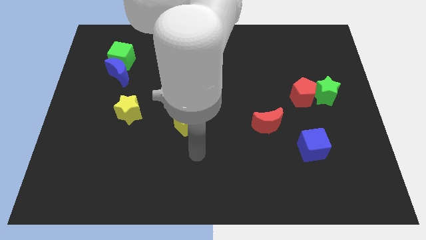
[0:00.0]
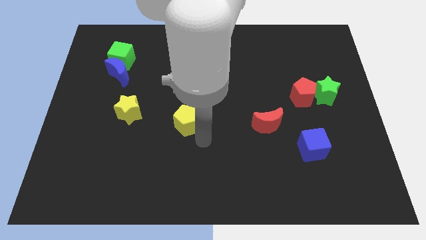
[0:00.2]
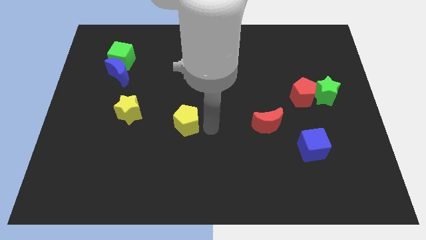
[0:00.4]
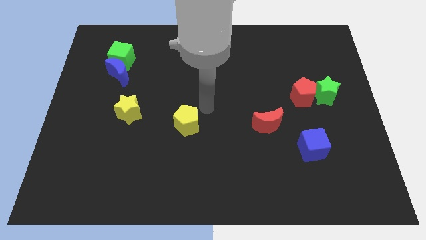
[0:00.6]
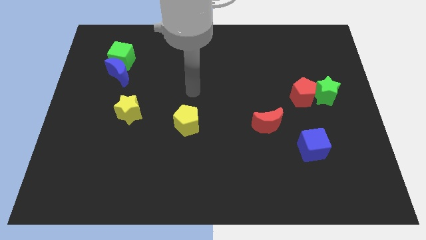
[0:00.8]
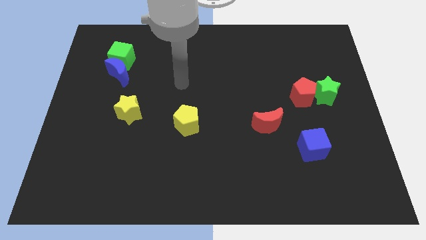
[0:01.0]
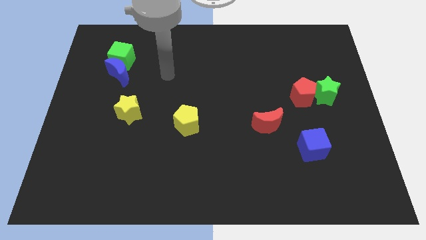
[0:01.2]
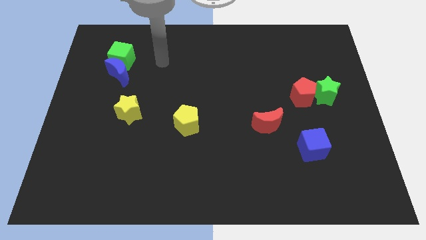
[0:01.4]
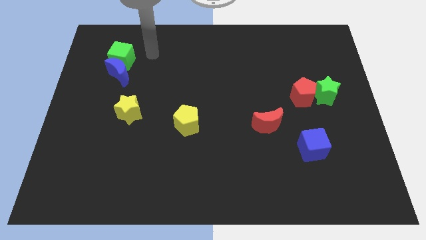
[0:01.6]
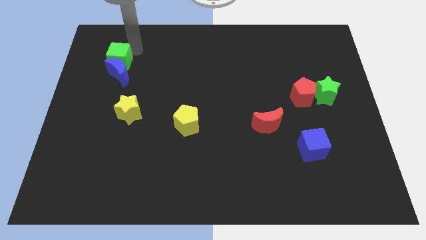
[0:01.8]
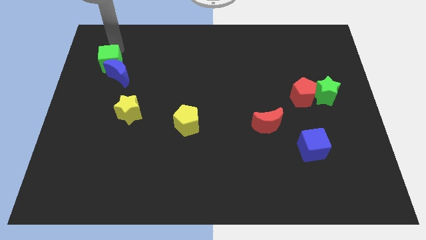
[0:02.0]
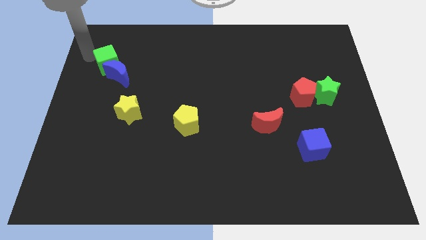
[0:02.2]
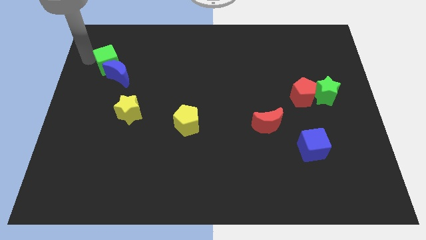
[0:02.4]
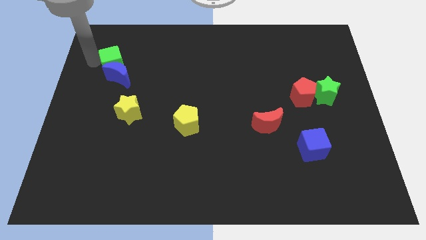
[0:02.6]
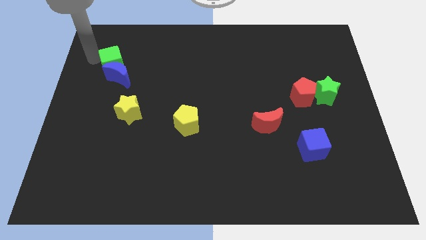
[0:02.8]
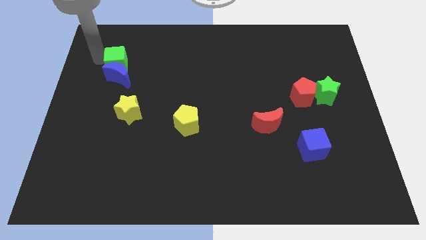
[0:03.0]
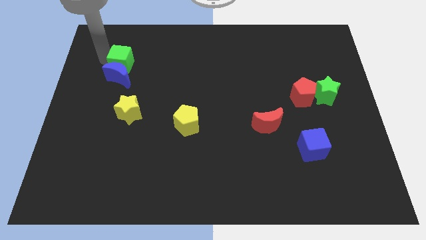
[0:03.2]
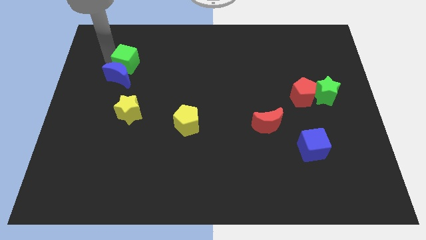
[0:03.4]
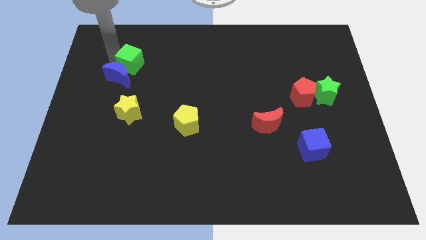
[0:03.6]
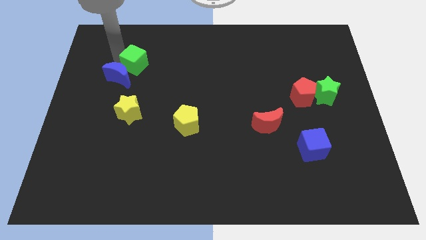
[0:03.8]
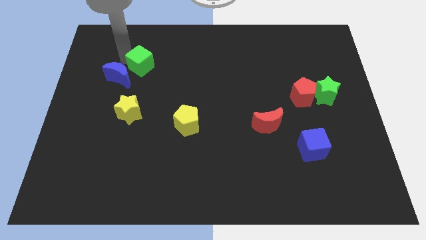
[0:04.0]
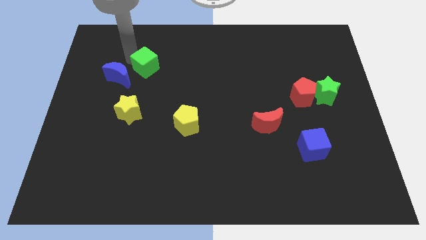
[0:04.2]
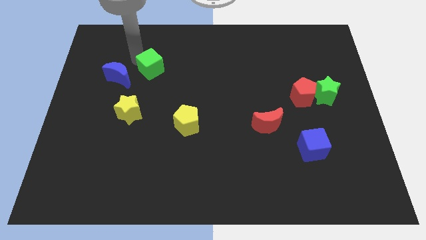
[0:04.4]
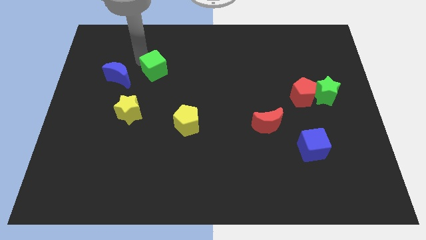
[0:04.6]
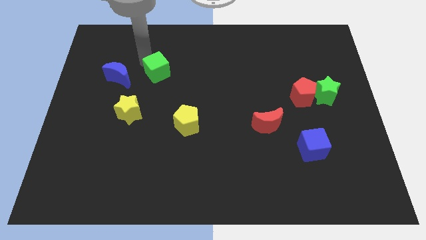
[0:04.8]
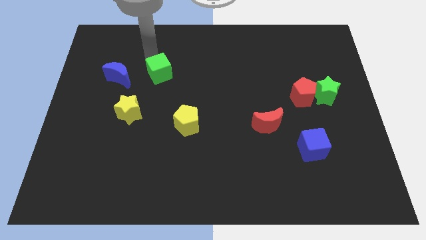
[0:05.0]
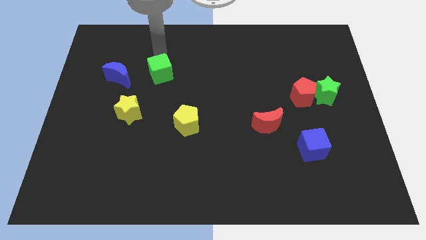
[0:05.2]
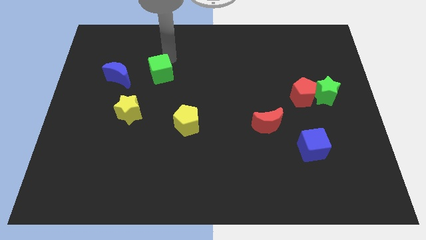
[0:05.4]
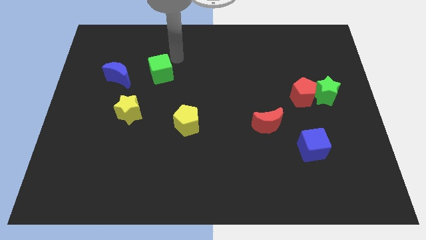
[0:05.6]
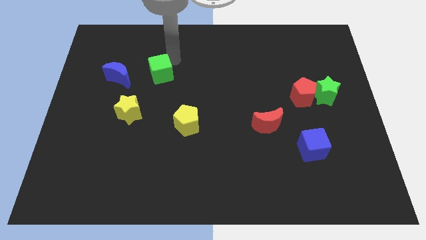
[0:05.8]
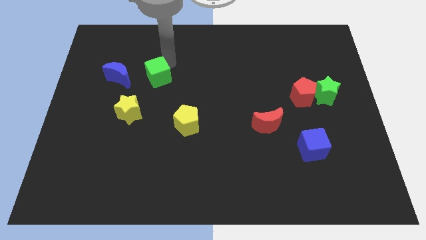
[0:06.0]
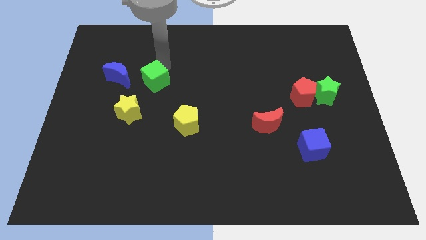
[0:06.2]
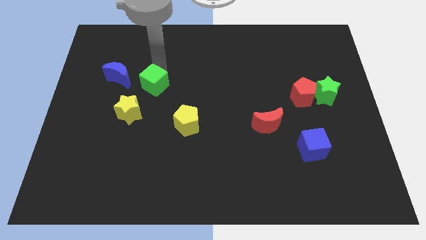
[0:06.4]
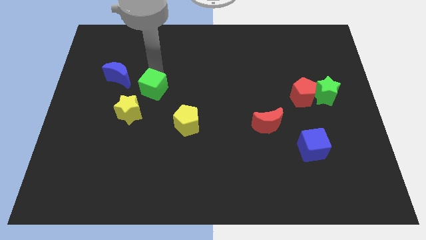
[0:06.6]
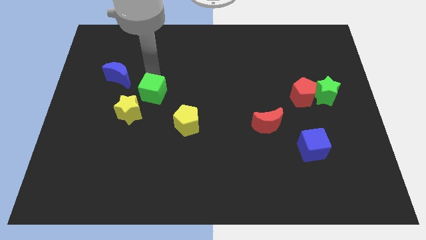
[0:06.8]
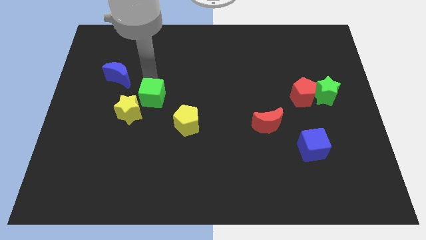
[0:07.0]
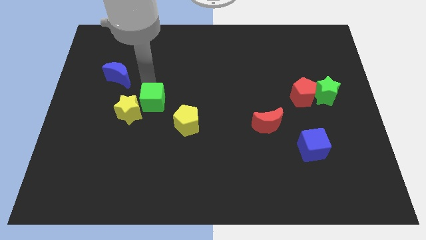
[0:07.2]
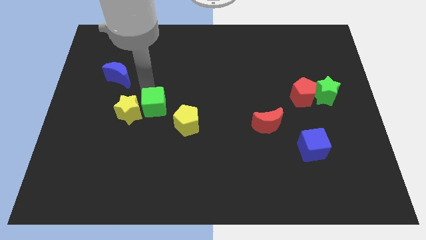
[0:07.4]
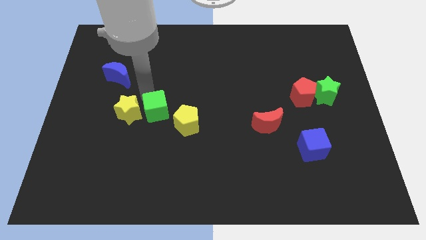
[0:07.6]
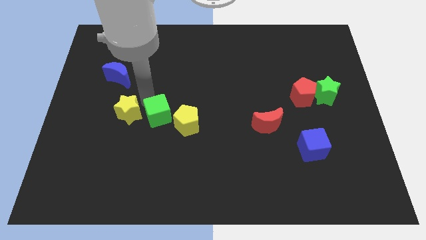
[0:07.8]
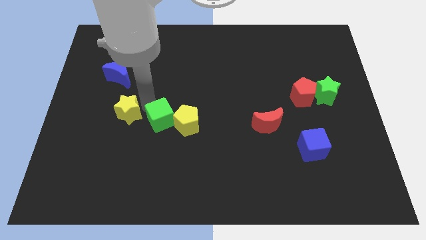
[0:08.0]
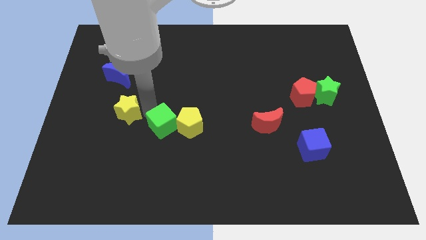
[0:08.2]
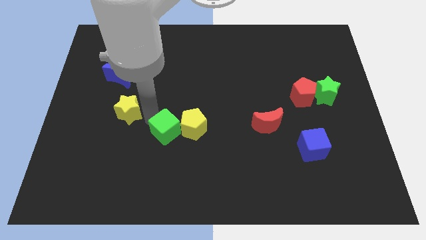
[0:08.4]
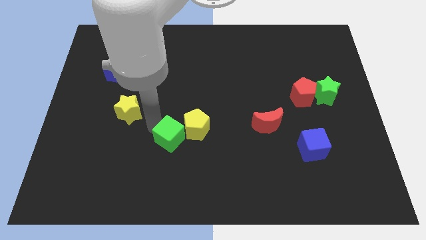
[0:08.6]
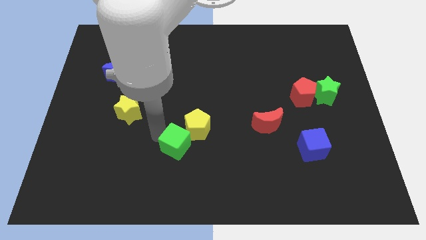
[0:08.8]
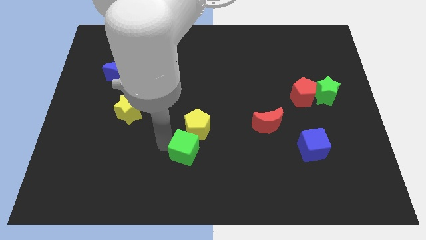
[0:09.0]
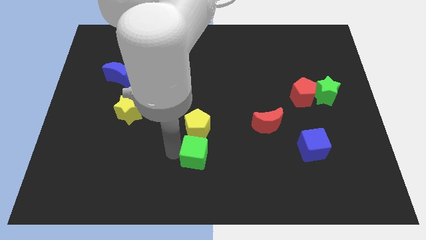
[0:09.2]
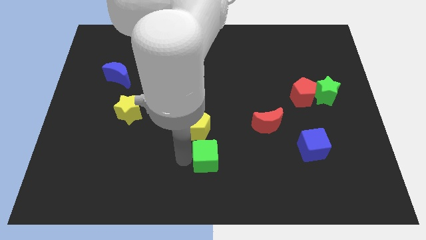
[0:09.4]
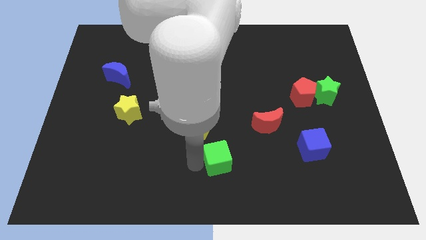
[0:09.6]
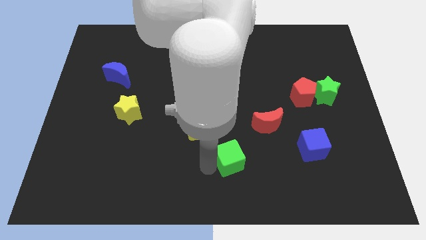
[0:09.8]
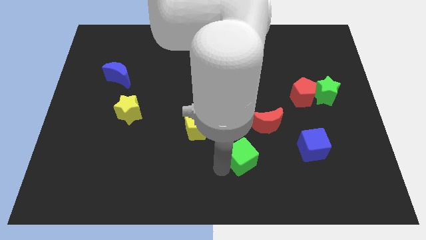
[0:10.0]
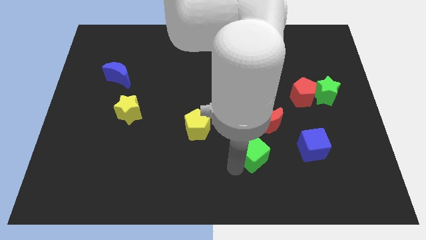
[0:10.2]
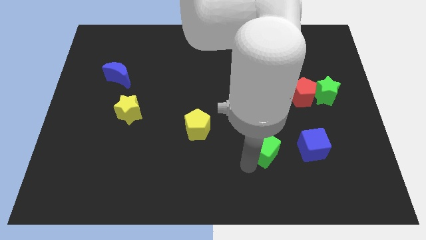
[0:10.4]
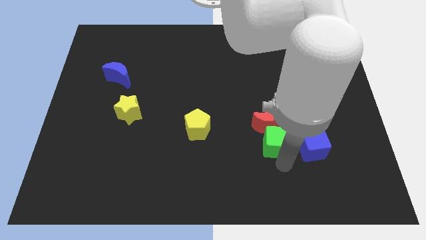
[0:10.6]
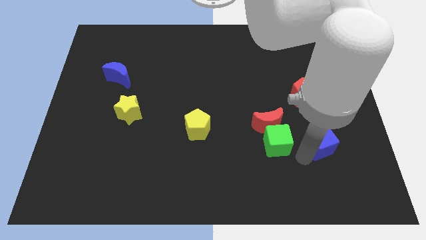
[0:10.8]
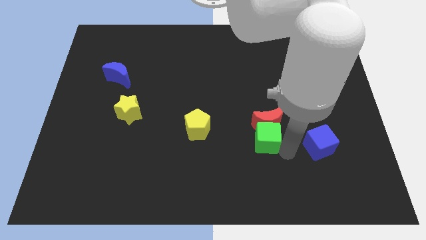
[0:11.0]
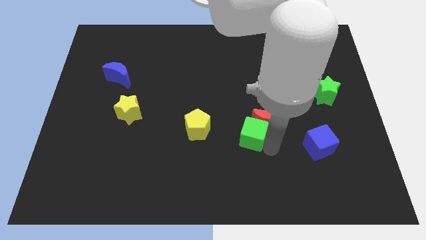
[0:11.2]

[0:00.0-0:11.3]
slide the green cube just left of the red moon

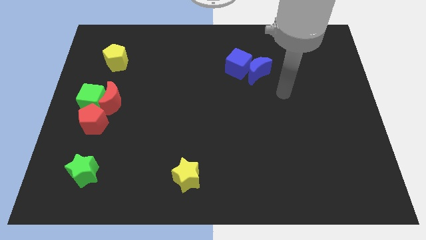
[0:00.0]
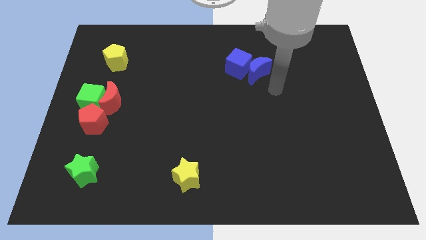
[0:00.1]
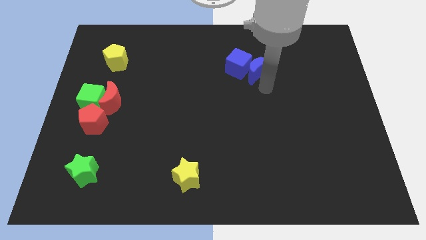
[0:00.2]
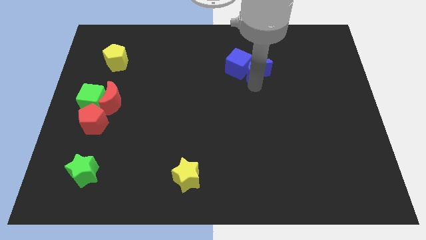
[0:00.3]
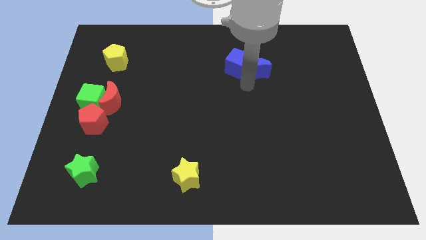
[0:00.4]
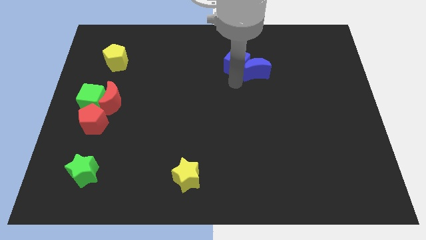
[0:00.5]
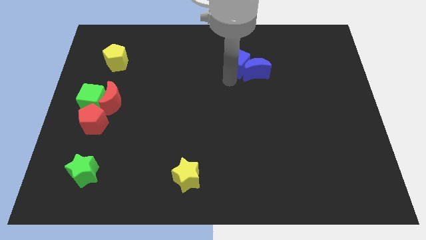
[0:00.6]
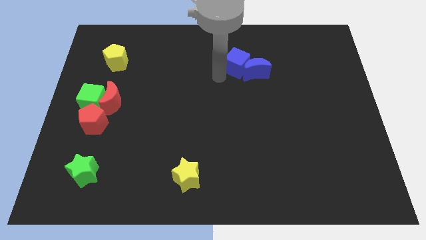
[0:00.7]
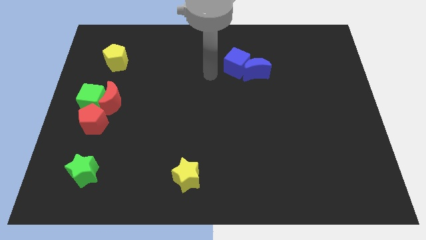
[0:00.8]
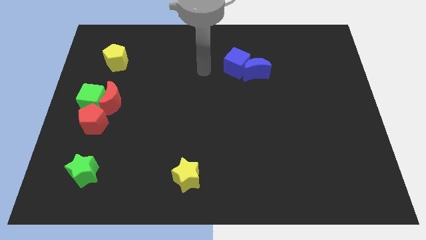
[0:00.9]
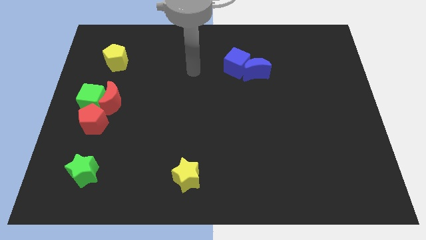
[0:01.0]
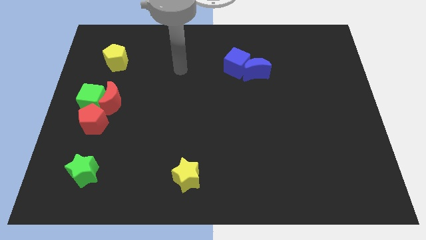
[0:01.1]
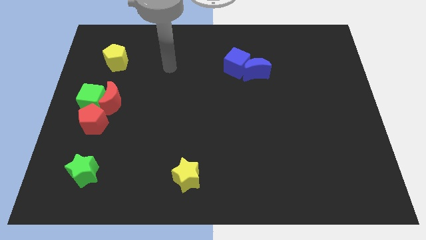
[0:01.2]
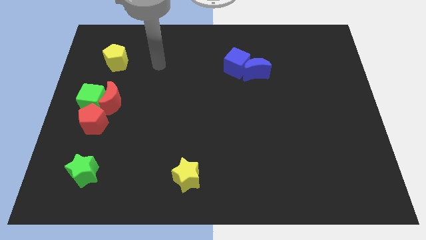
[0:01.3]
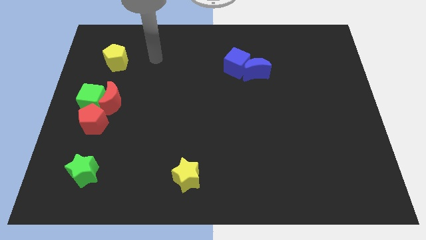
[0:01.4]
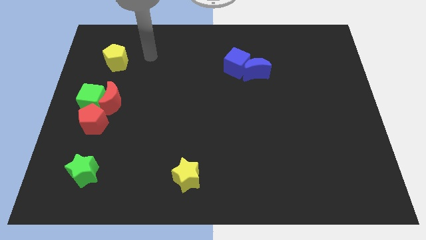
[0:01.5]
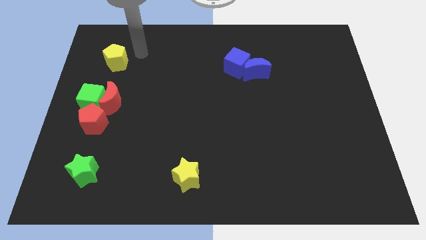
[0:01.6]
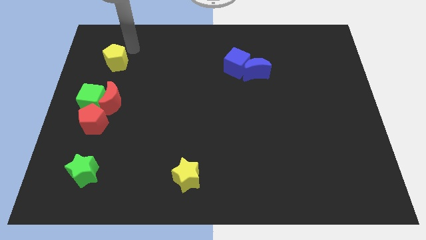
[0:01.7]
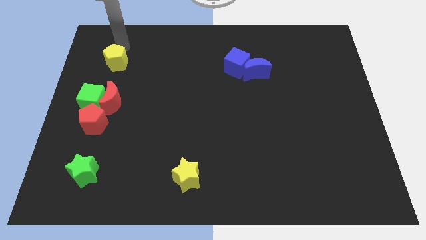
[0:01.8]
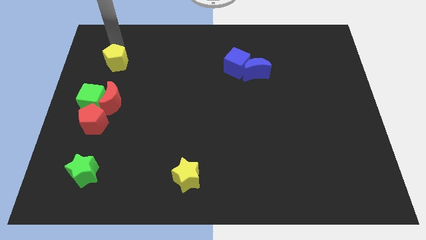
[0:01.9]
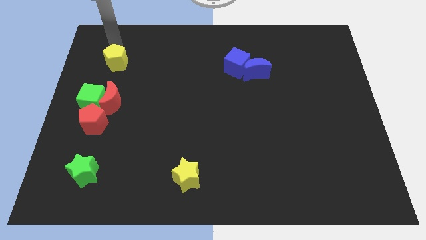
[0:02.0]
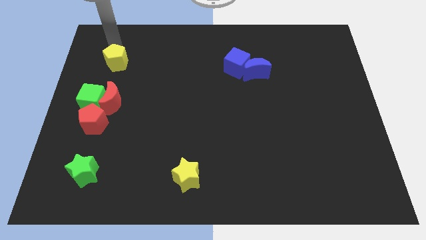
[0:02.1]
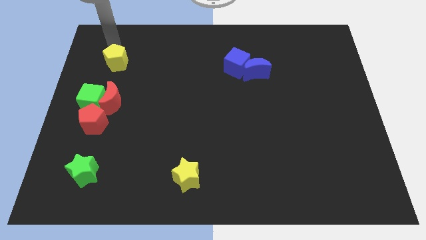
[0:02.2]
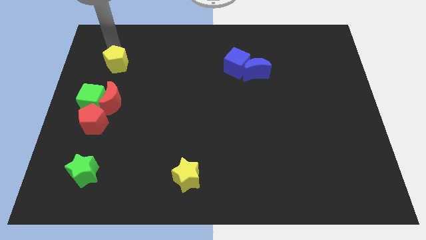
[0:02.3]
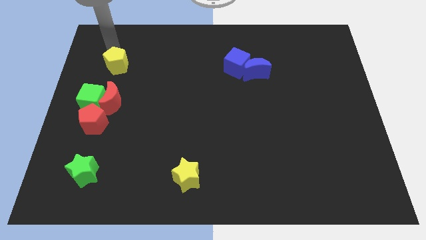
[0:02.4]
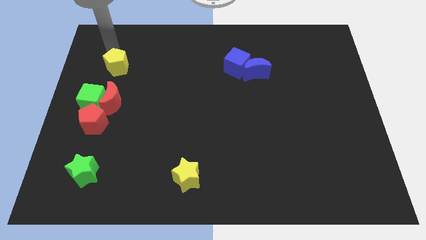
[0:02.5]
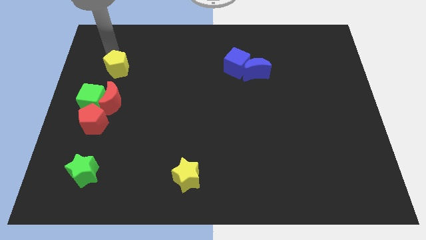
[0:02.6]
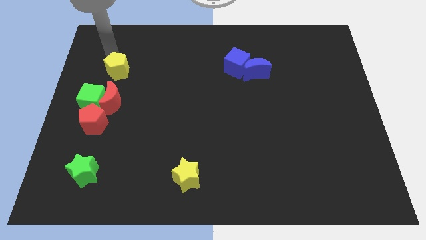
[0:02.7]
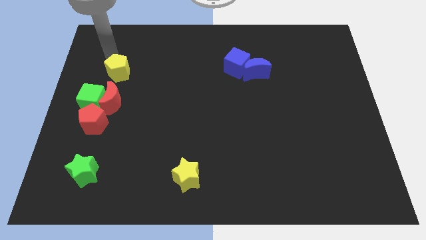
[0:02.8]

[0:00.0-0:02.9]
push the yellow pentagon to the top right side of the green cube
